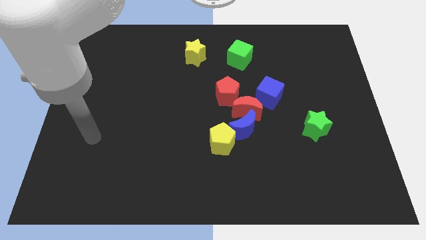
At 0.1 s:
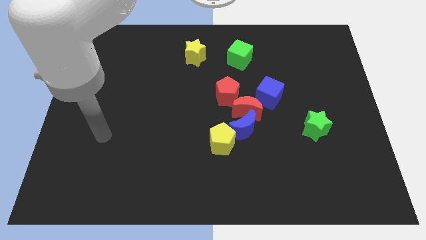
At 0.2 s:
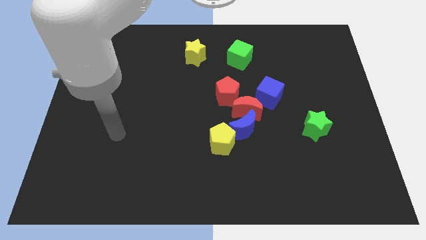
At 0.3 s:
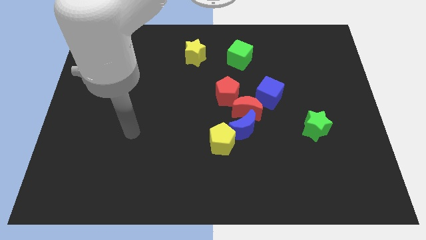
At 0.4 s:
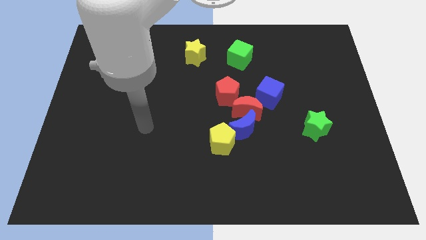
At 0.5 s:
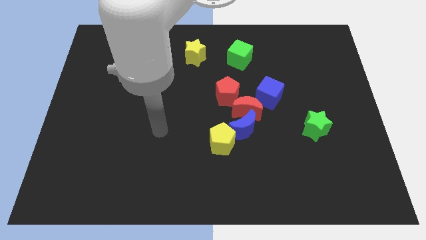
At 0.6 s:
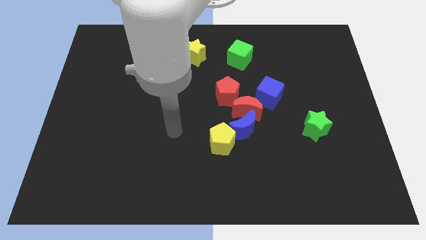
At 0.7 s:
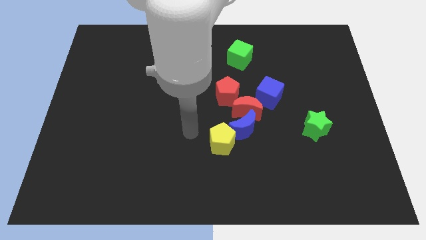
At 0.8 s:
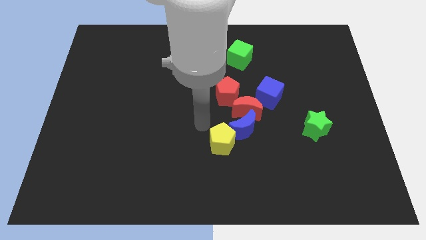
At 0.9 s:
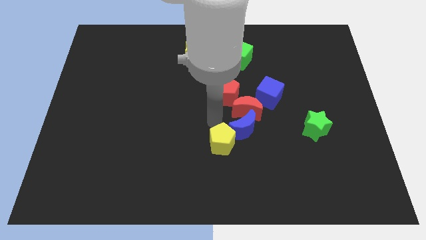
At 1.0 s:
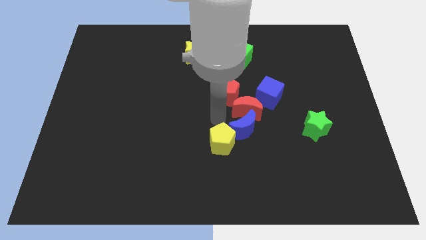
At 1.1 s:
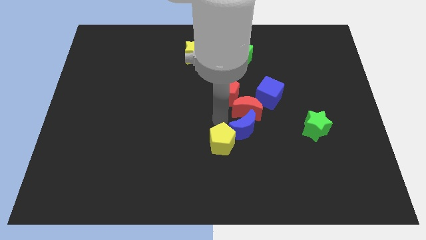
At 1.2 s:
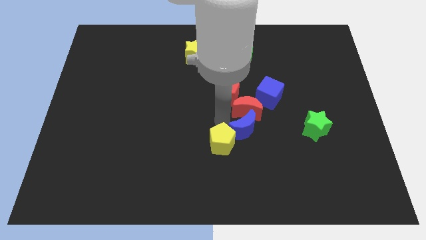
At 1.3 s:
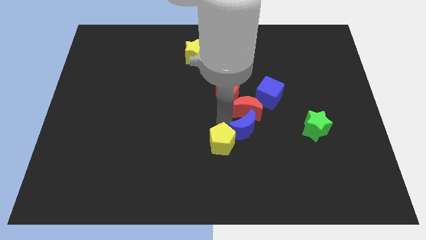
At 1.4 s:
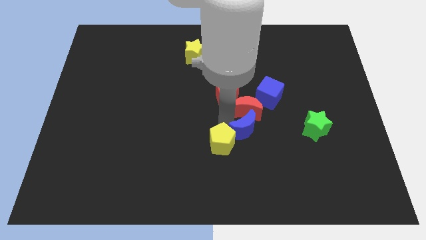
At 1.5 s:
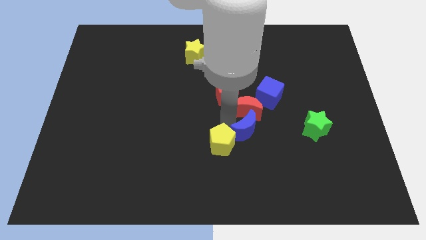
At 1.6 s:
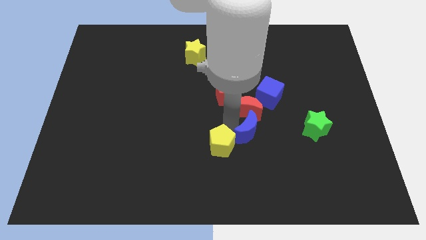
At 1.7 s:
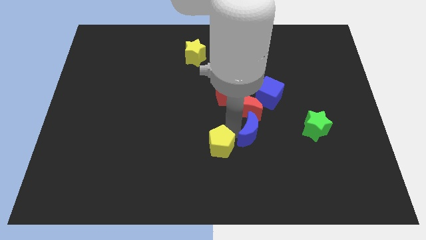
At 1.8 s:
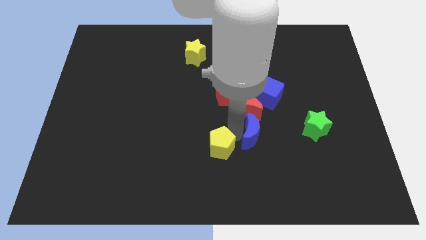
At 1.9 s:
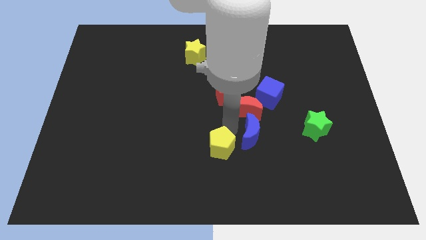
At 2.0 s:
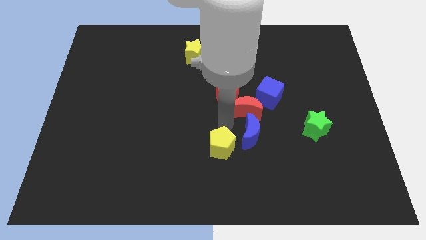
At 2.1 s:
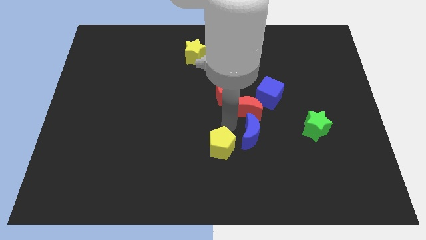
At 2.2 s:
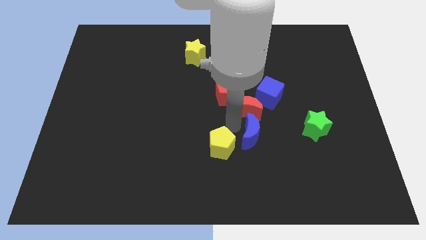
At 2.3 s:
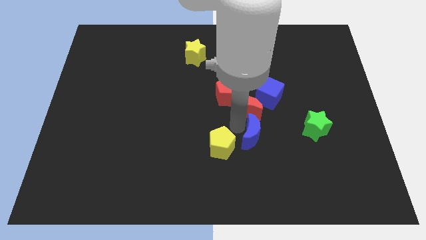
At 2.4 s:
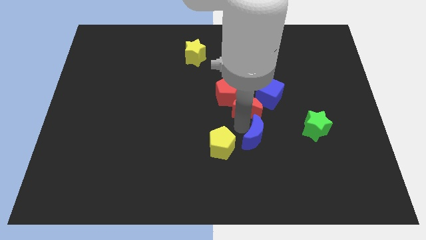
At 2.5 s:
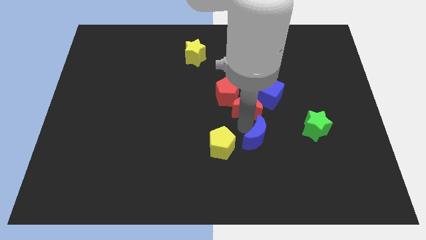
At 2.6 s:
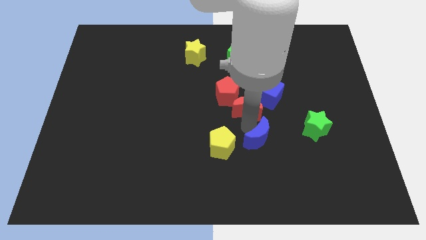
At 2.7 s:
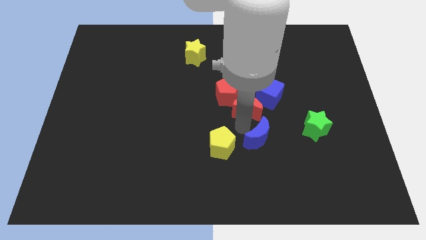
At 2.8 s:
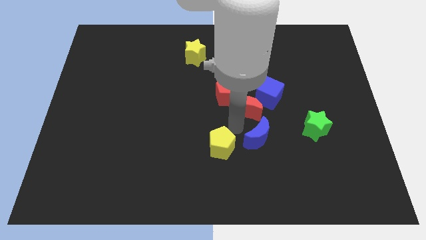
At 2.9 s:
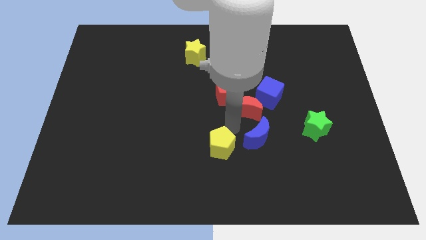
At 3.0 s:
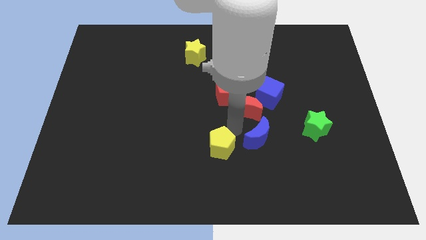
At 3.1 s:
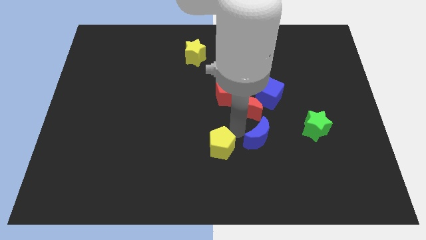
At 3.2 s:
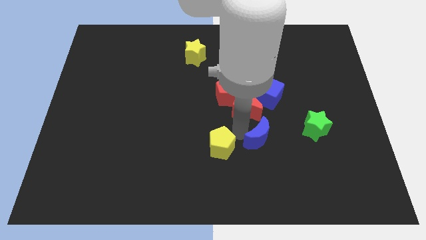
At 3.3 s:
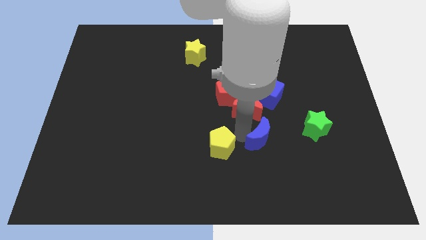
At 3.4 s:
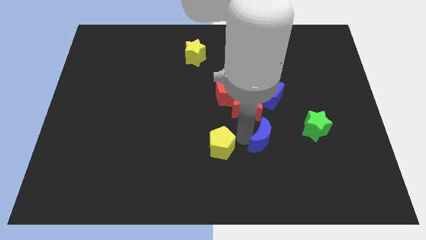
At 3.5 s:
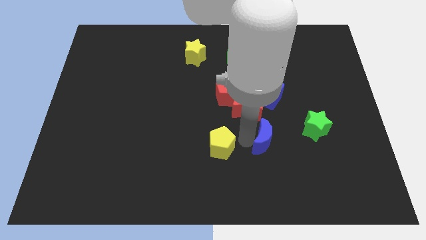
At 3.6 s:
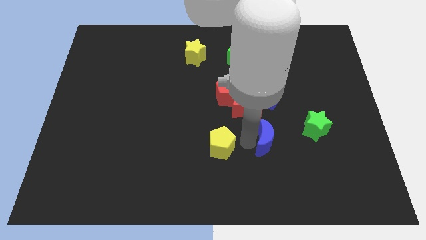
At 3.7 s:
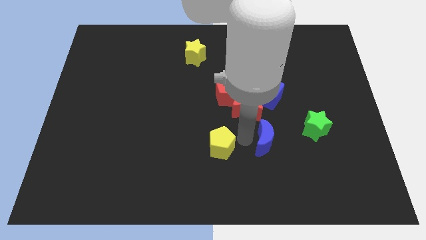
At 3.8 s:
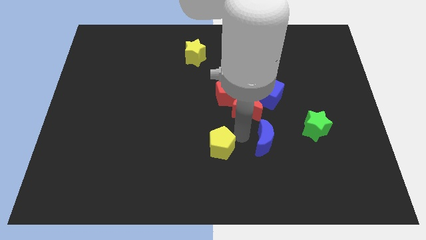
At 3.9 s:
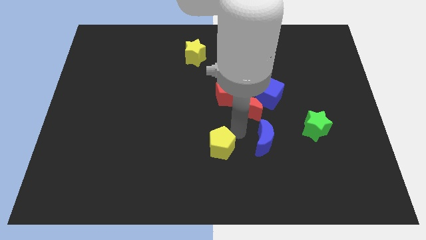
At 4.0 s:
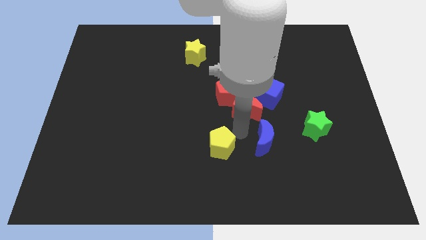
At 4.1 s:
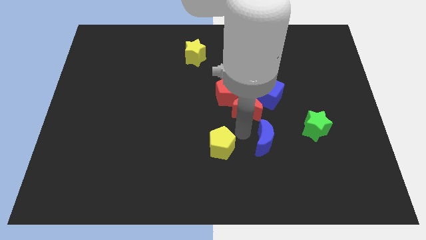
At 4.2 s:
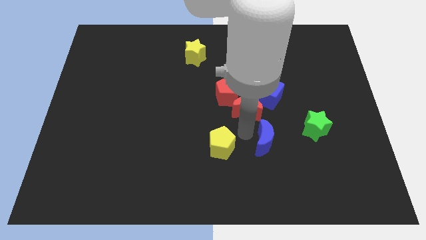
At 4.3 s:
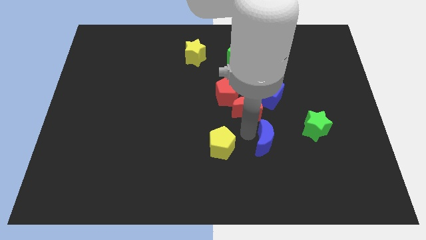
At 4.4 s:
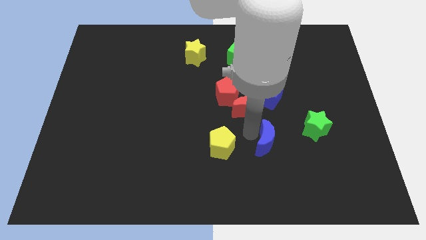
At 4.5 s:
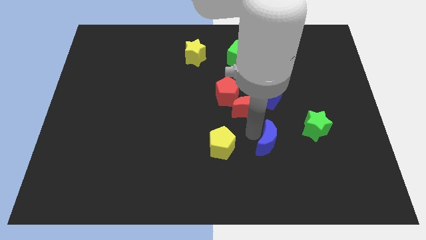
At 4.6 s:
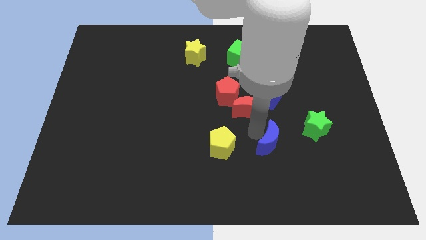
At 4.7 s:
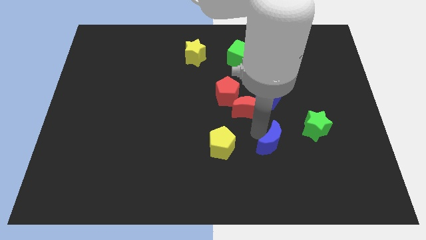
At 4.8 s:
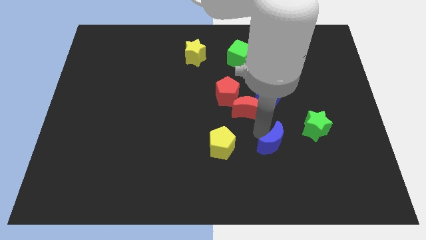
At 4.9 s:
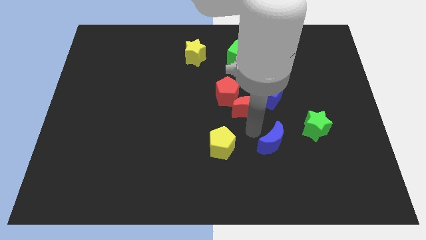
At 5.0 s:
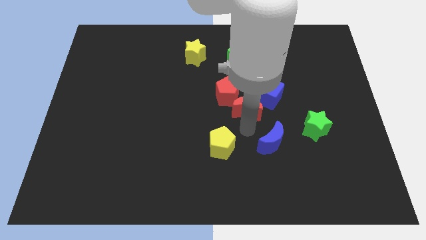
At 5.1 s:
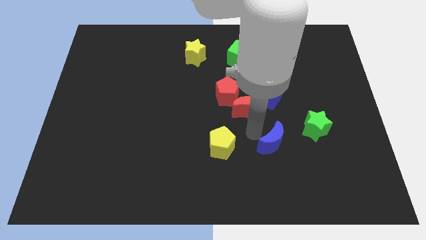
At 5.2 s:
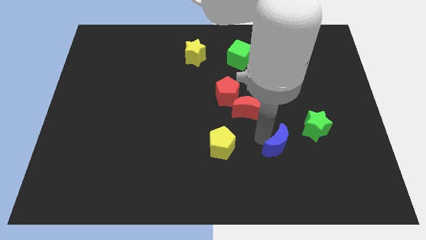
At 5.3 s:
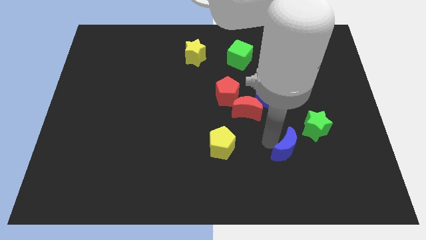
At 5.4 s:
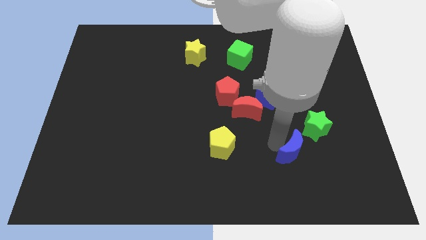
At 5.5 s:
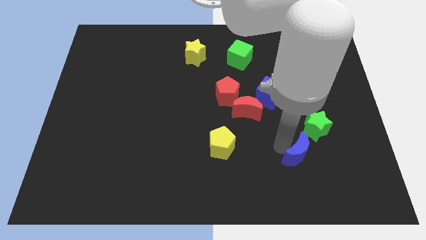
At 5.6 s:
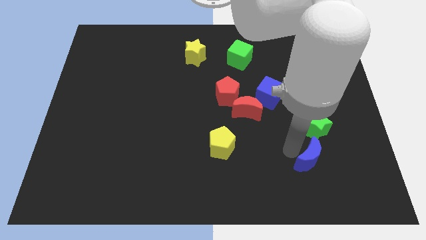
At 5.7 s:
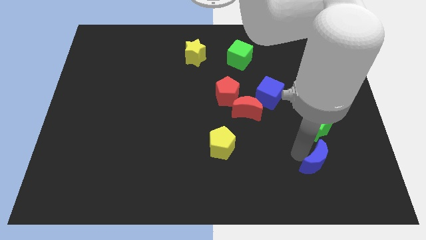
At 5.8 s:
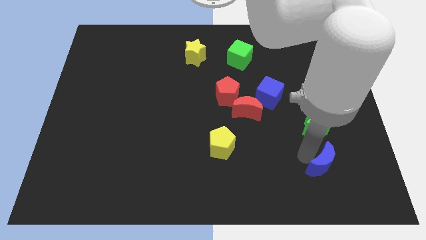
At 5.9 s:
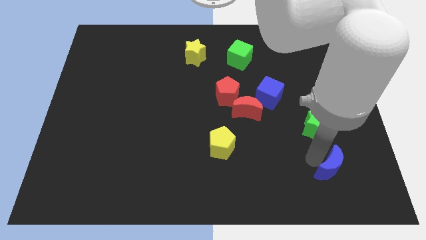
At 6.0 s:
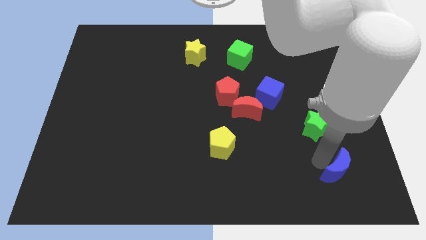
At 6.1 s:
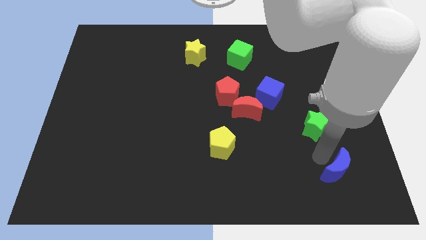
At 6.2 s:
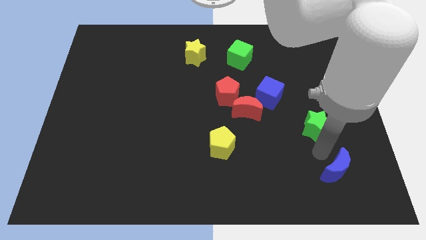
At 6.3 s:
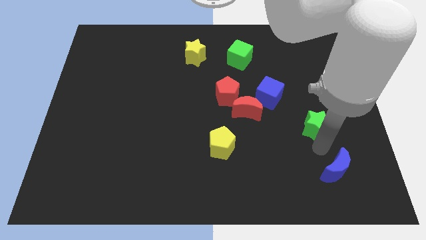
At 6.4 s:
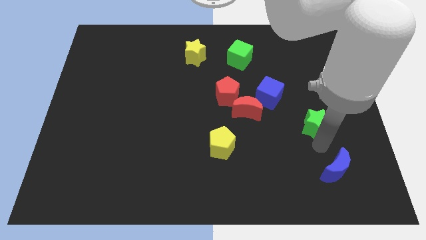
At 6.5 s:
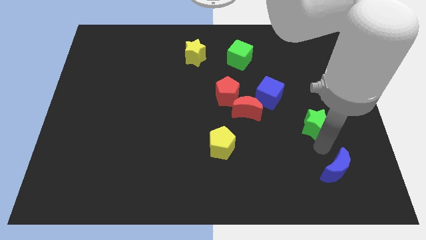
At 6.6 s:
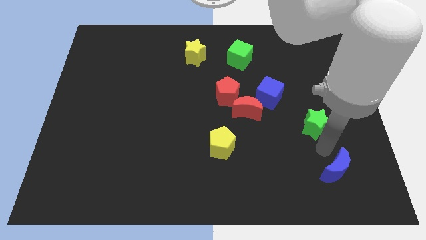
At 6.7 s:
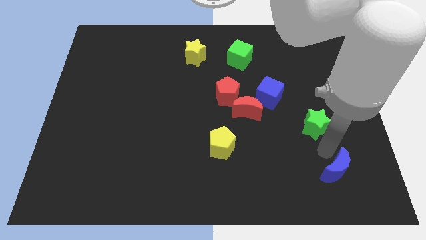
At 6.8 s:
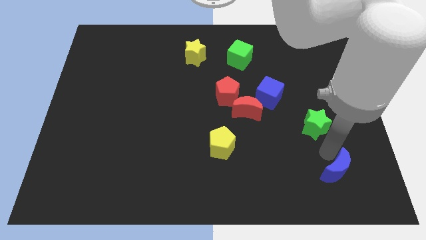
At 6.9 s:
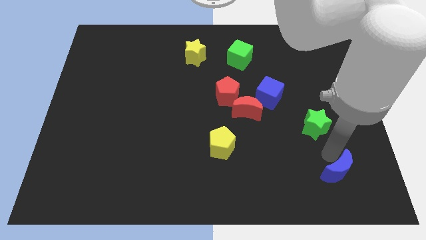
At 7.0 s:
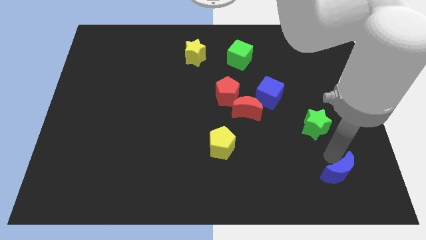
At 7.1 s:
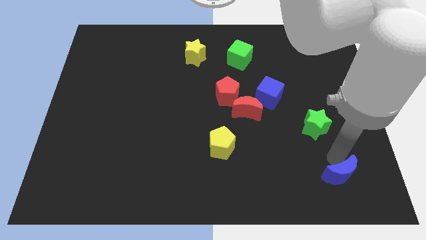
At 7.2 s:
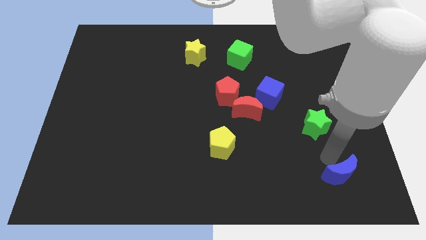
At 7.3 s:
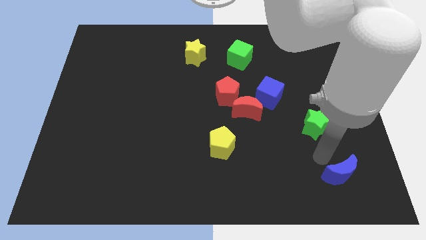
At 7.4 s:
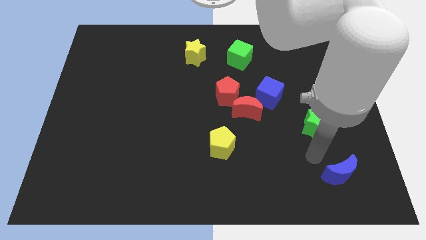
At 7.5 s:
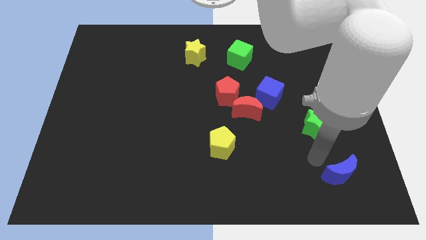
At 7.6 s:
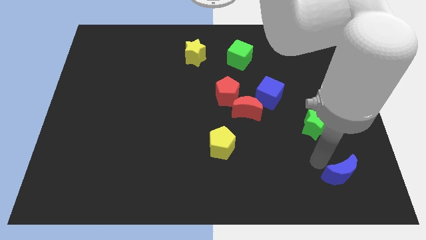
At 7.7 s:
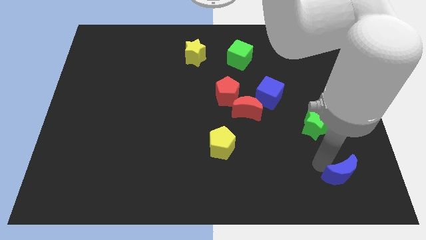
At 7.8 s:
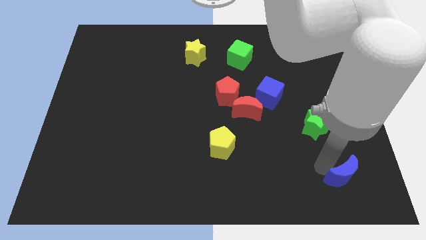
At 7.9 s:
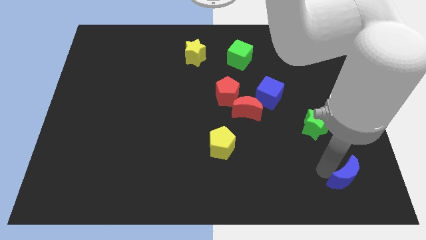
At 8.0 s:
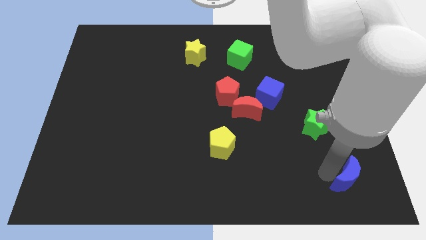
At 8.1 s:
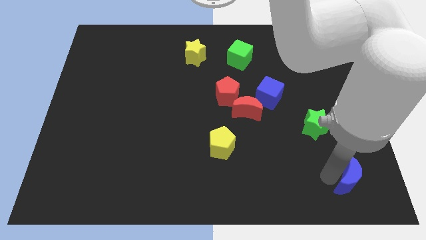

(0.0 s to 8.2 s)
put the blue moon to the bottom right
